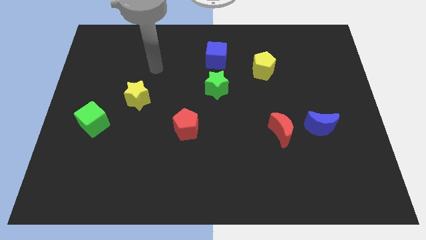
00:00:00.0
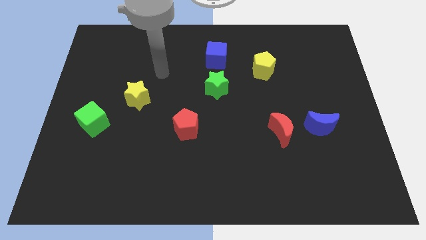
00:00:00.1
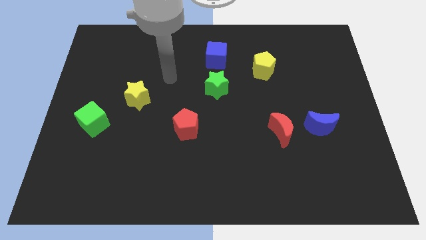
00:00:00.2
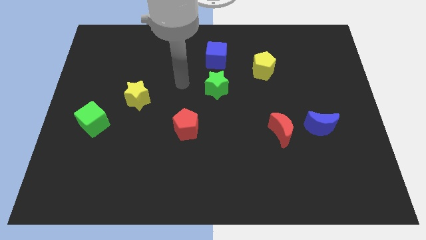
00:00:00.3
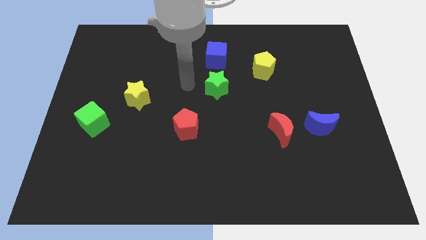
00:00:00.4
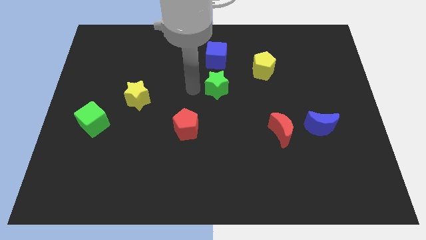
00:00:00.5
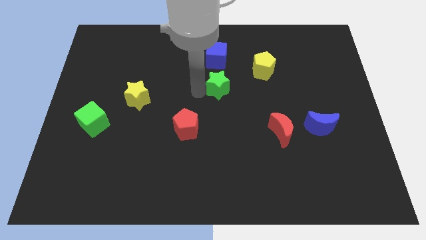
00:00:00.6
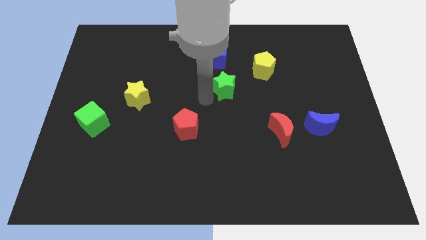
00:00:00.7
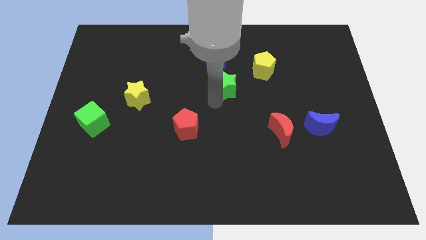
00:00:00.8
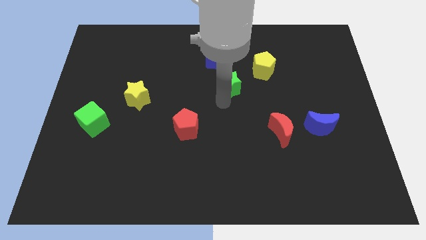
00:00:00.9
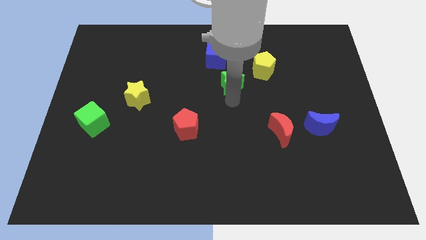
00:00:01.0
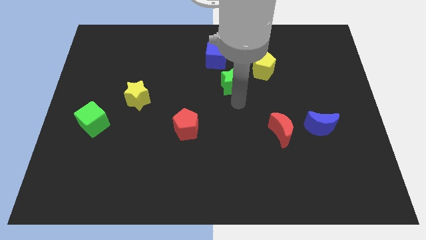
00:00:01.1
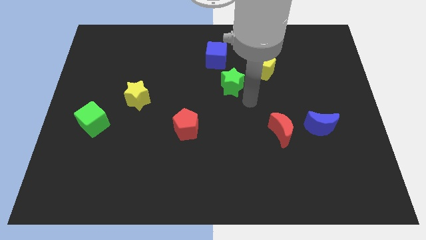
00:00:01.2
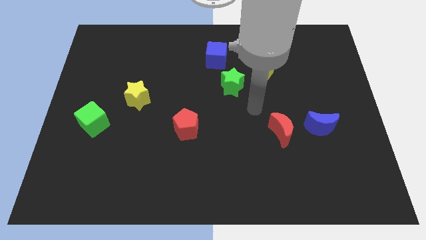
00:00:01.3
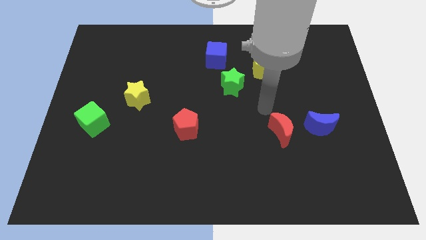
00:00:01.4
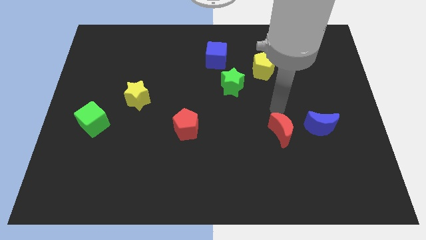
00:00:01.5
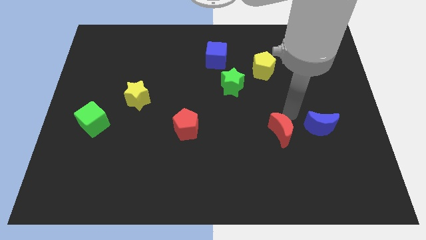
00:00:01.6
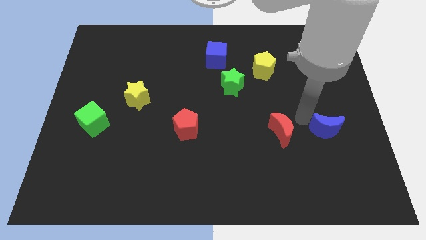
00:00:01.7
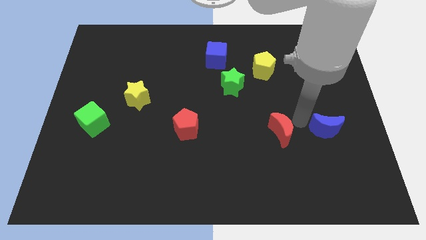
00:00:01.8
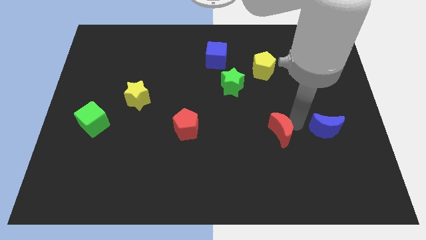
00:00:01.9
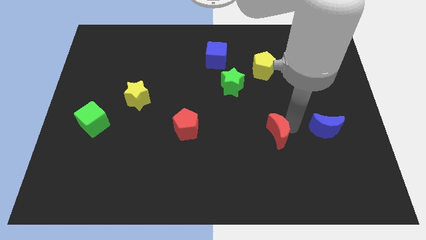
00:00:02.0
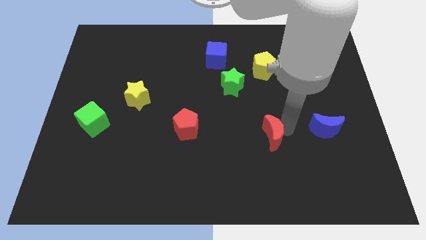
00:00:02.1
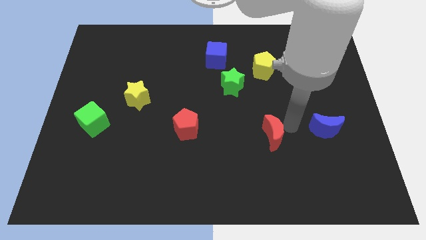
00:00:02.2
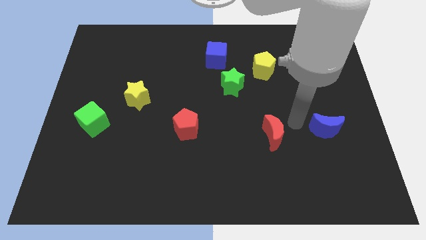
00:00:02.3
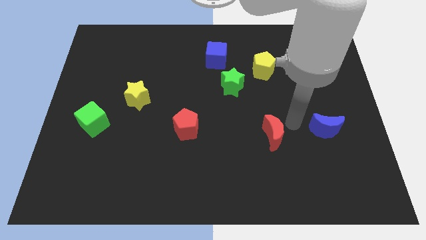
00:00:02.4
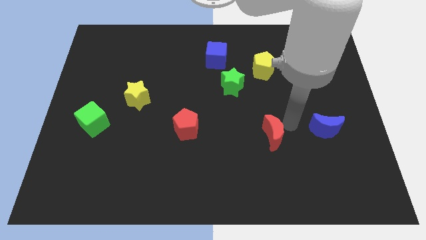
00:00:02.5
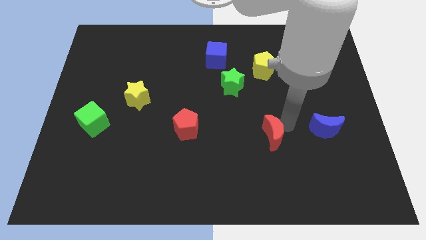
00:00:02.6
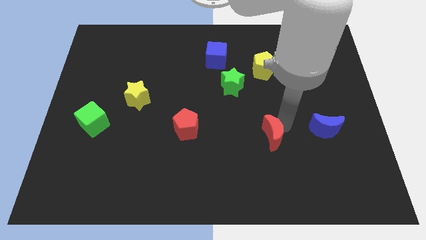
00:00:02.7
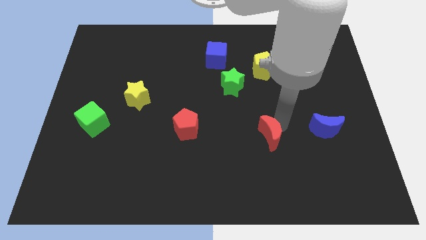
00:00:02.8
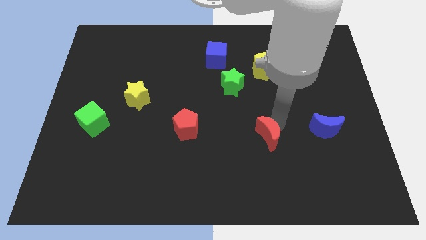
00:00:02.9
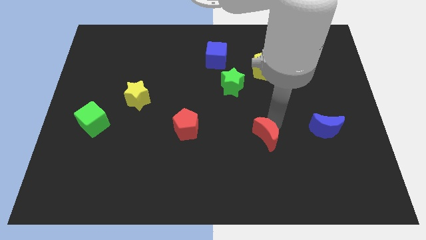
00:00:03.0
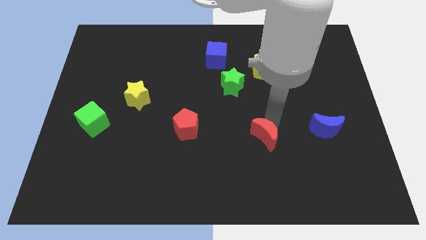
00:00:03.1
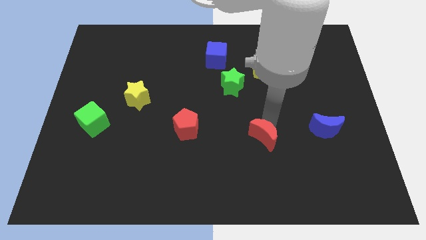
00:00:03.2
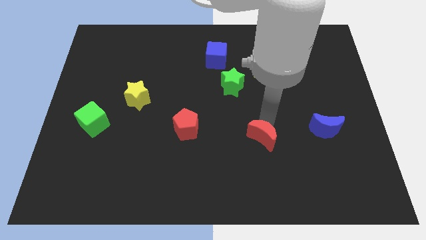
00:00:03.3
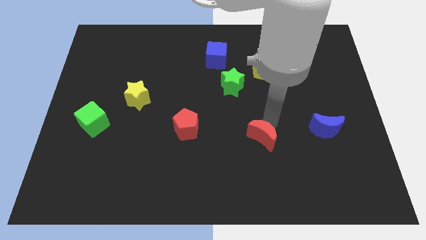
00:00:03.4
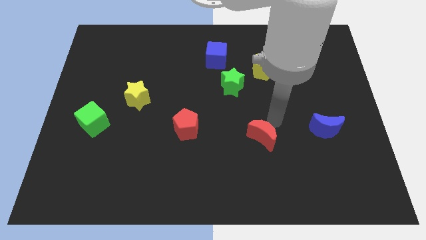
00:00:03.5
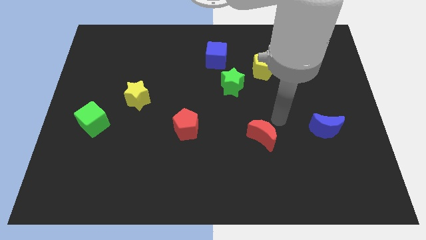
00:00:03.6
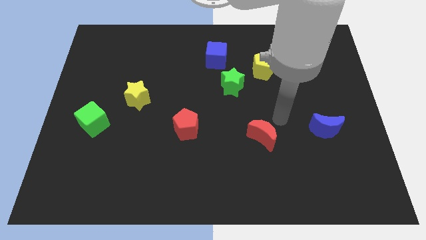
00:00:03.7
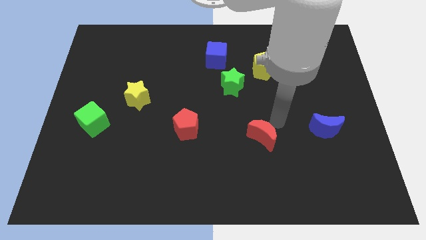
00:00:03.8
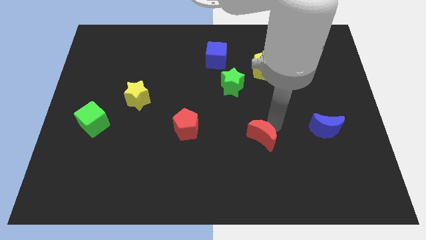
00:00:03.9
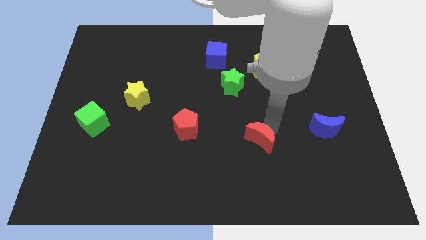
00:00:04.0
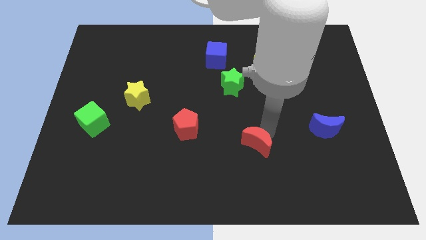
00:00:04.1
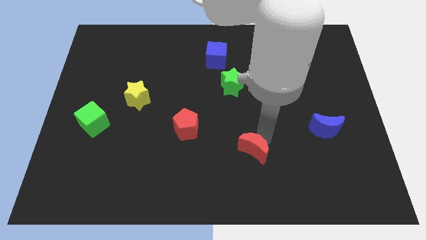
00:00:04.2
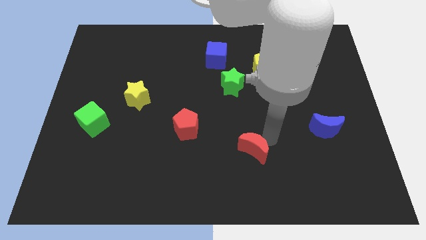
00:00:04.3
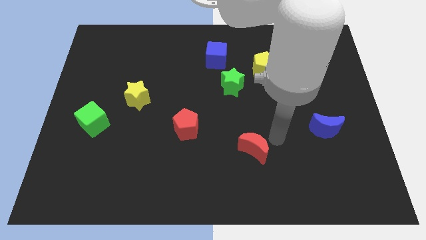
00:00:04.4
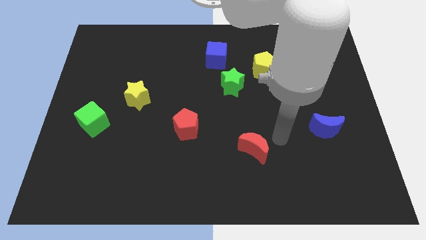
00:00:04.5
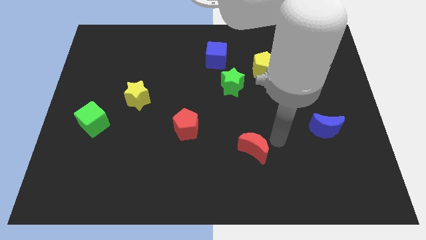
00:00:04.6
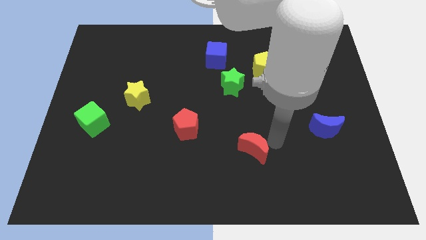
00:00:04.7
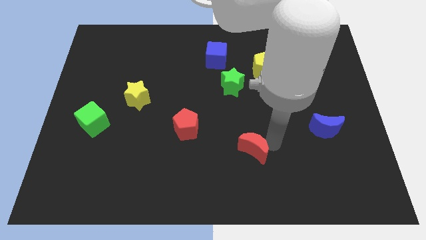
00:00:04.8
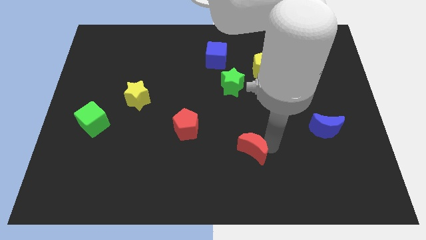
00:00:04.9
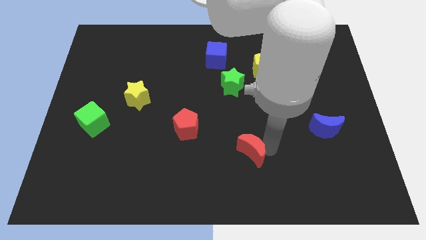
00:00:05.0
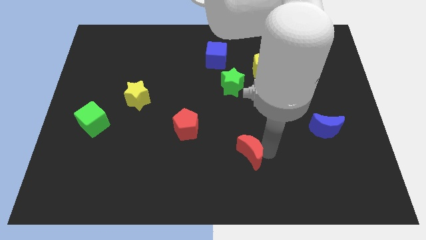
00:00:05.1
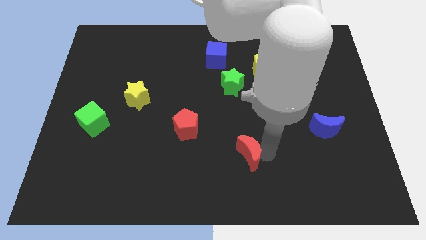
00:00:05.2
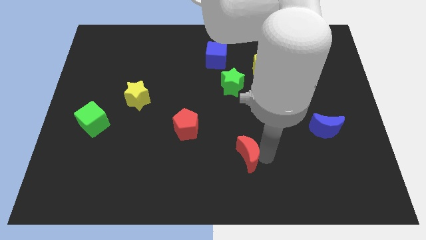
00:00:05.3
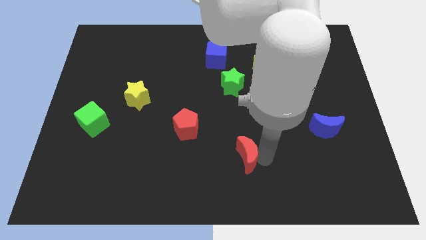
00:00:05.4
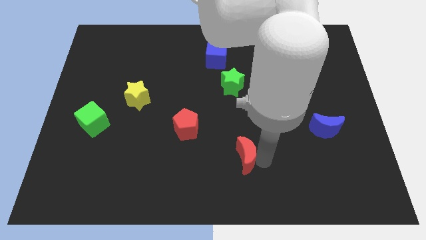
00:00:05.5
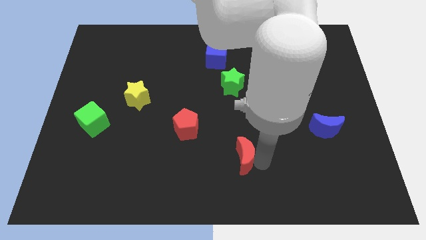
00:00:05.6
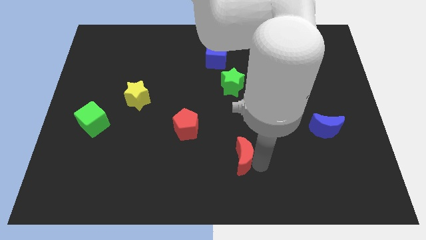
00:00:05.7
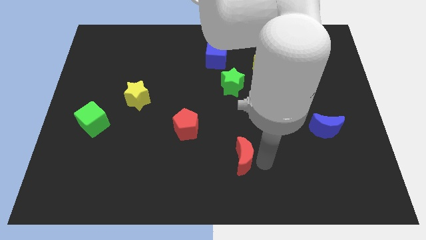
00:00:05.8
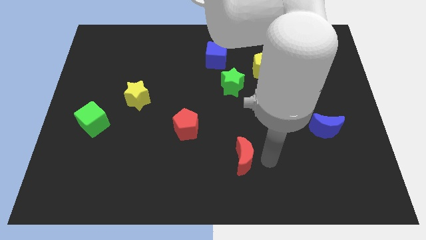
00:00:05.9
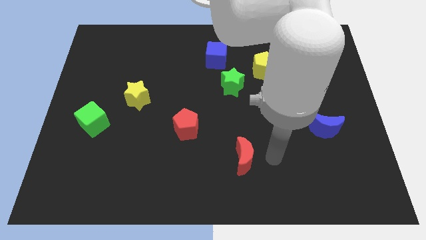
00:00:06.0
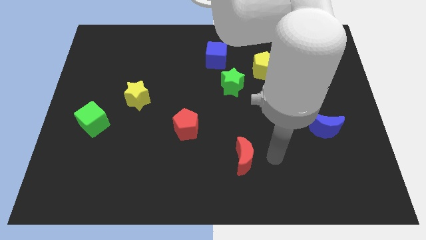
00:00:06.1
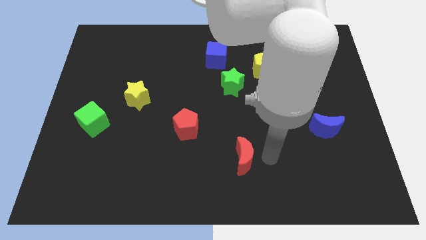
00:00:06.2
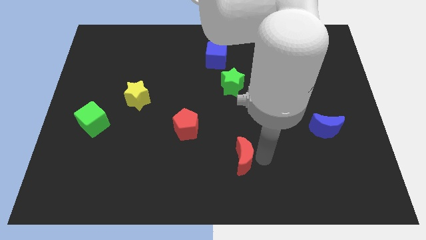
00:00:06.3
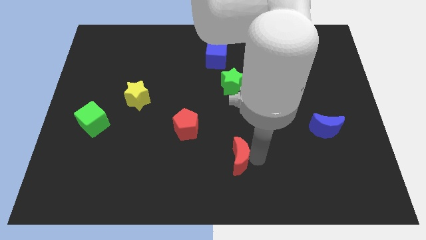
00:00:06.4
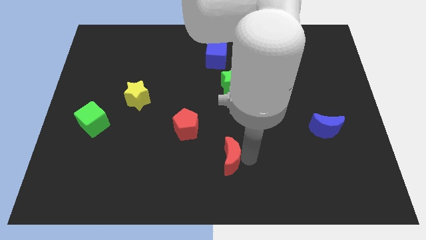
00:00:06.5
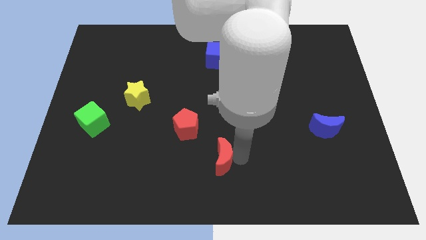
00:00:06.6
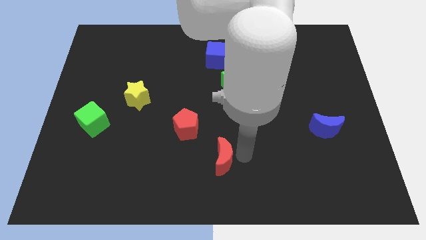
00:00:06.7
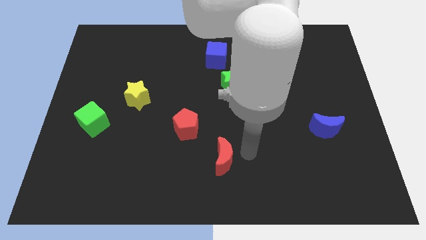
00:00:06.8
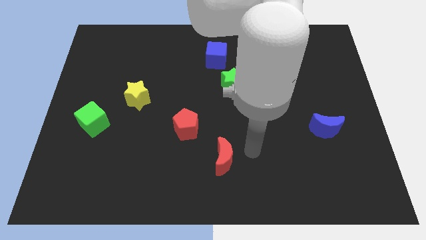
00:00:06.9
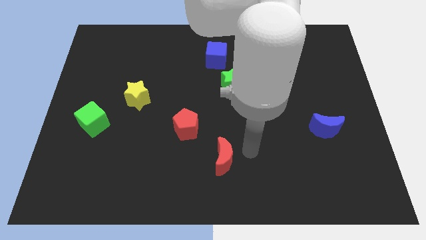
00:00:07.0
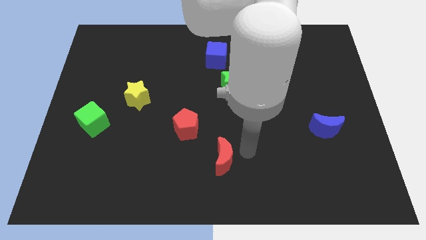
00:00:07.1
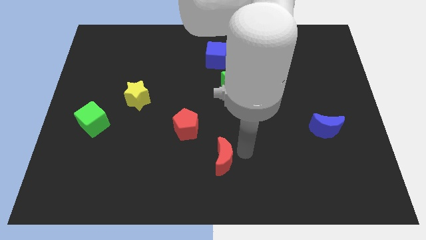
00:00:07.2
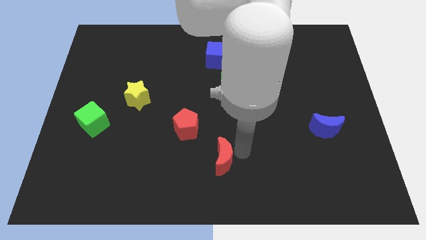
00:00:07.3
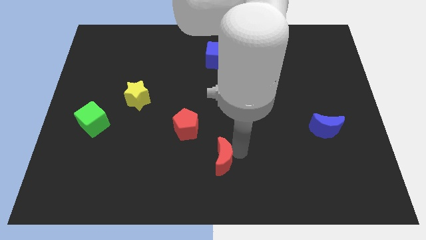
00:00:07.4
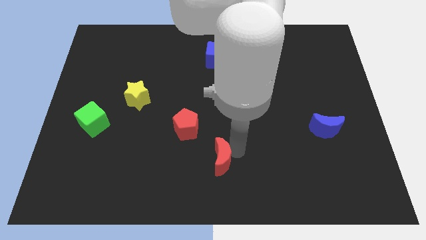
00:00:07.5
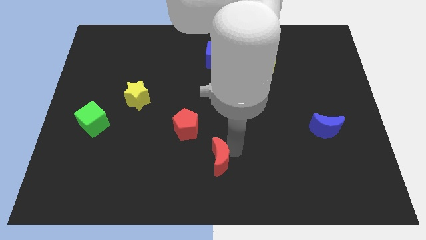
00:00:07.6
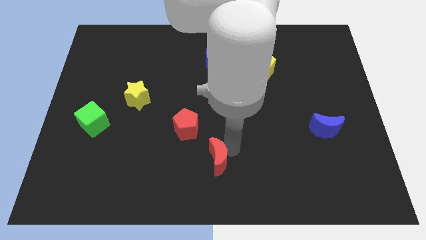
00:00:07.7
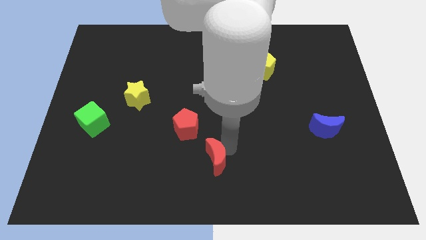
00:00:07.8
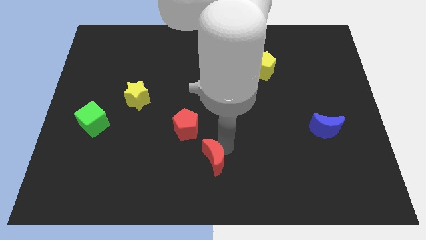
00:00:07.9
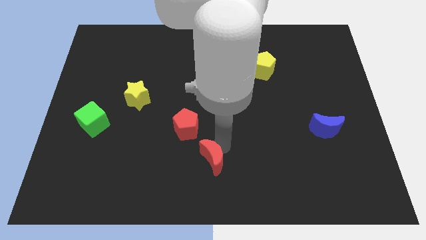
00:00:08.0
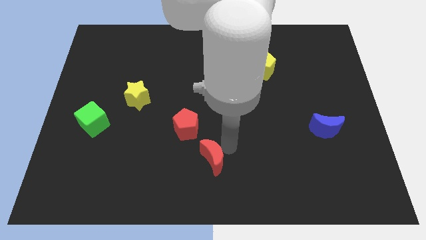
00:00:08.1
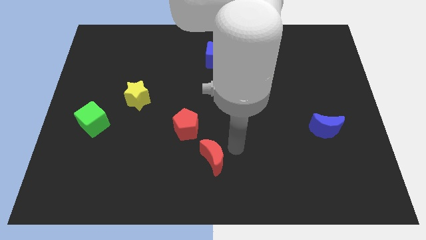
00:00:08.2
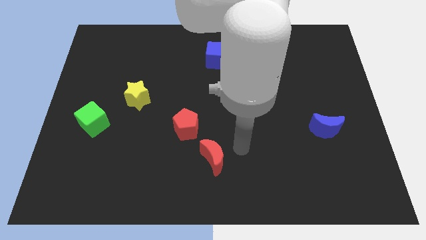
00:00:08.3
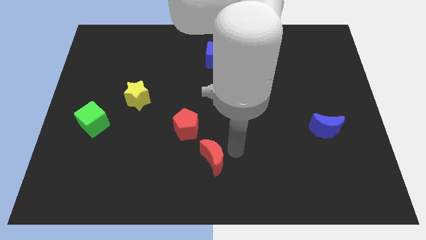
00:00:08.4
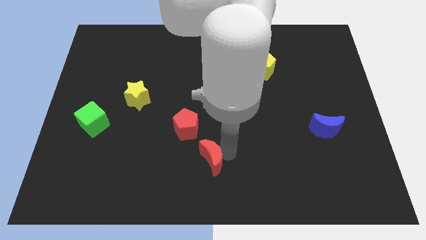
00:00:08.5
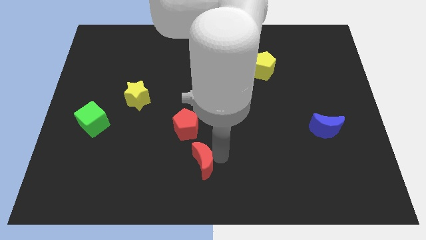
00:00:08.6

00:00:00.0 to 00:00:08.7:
move the red moon below the red pentagon
